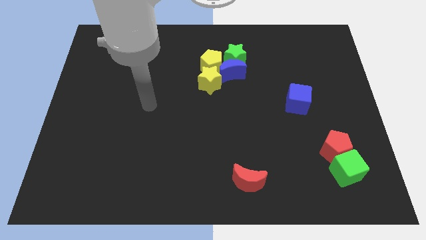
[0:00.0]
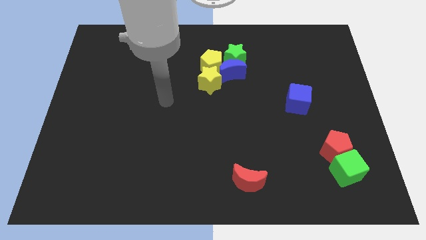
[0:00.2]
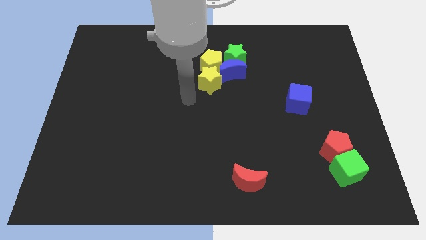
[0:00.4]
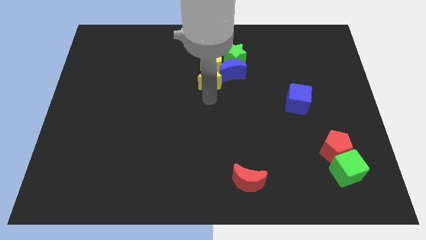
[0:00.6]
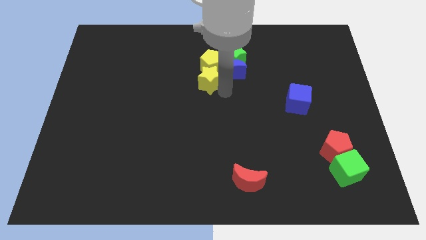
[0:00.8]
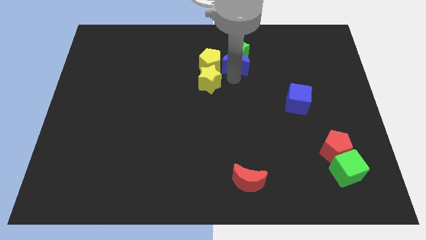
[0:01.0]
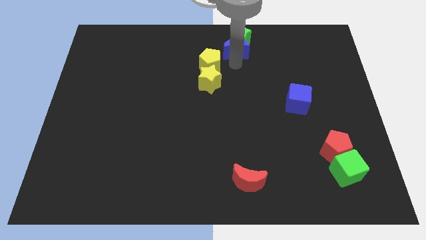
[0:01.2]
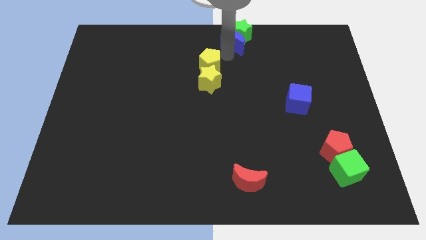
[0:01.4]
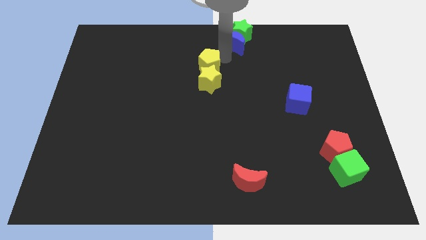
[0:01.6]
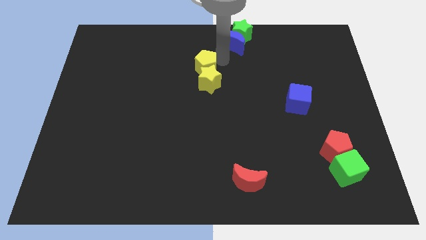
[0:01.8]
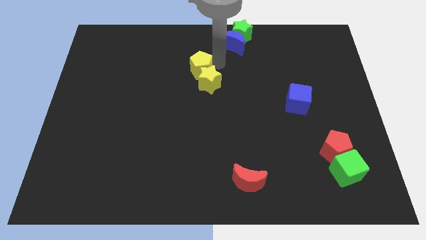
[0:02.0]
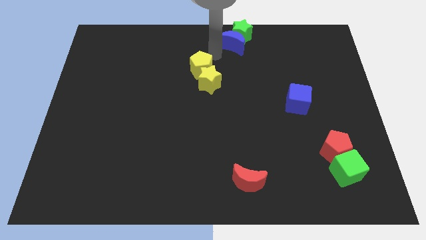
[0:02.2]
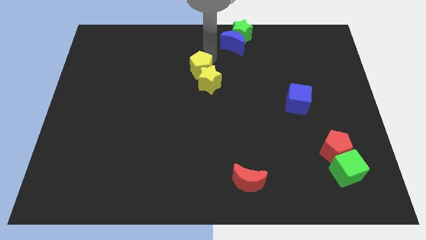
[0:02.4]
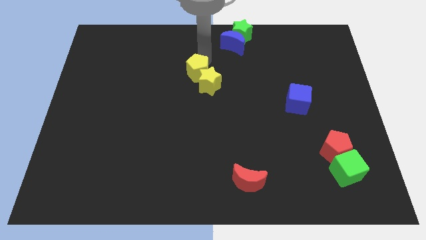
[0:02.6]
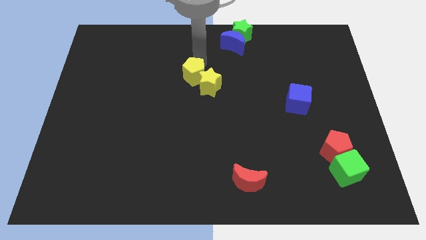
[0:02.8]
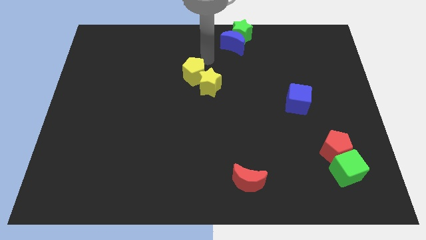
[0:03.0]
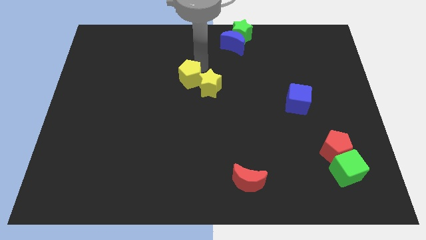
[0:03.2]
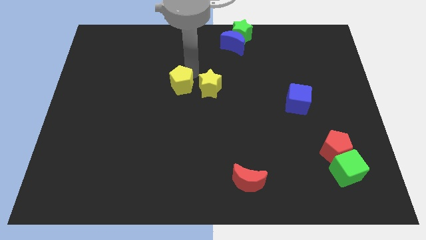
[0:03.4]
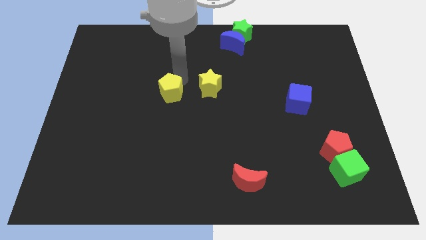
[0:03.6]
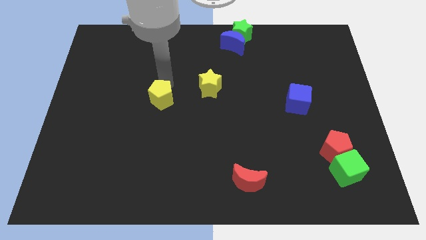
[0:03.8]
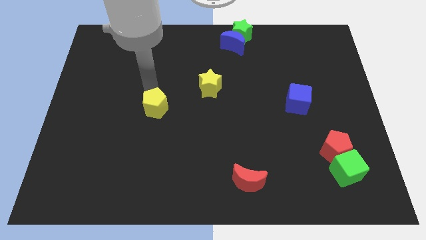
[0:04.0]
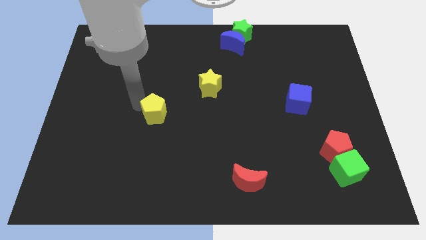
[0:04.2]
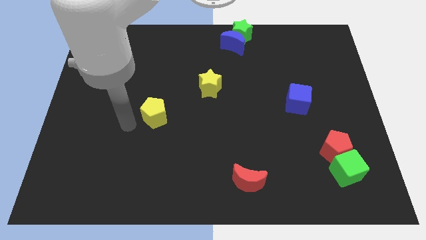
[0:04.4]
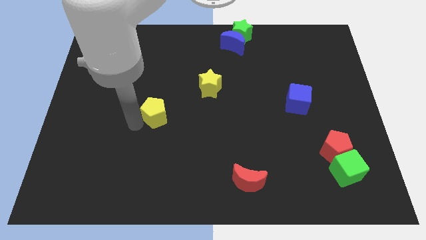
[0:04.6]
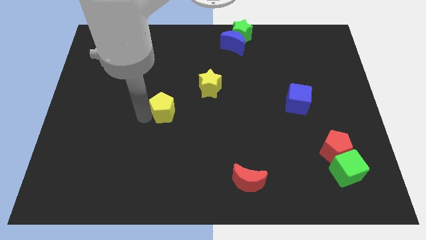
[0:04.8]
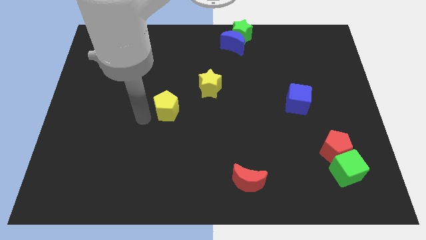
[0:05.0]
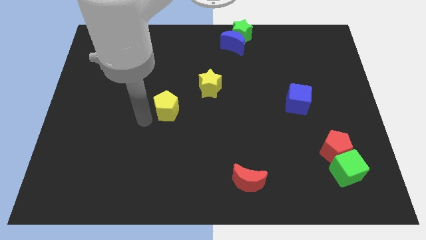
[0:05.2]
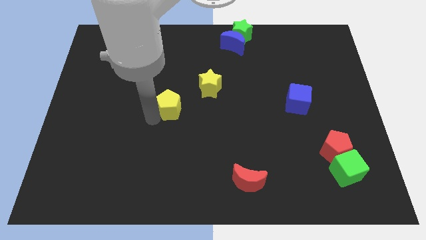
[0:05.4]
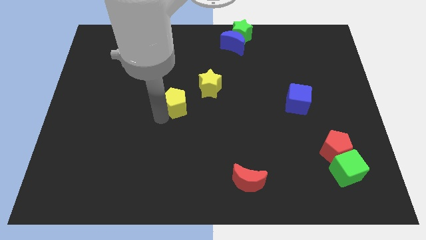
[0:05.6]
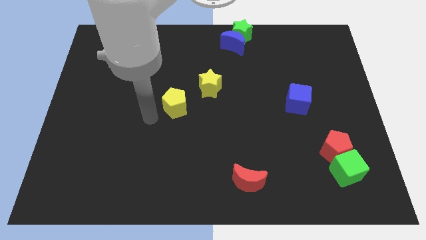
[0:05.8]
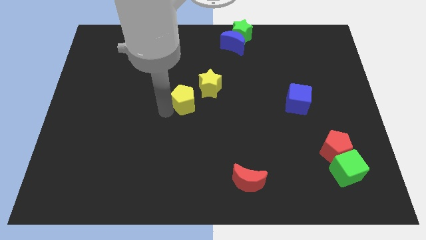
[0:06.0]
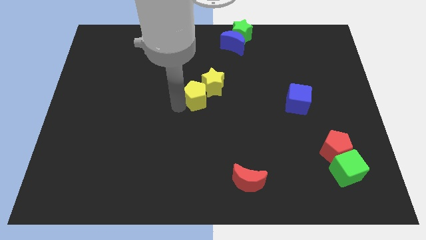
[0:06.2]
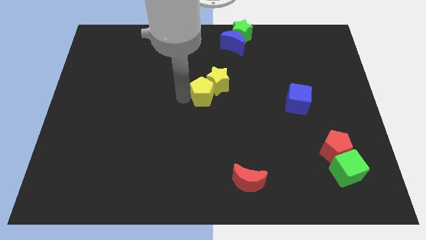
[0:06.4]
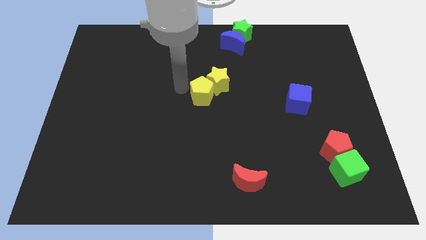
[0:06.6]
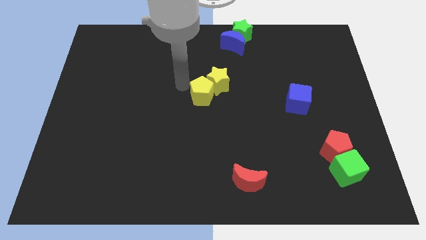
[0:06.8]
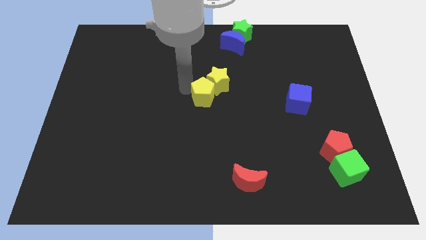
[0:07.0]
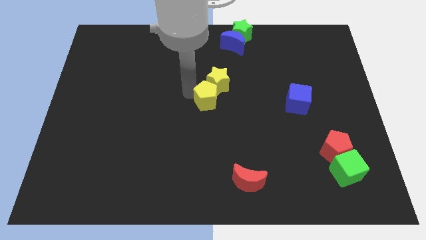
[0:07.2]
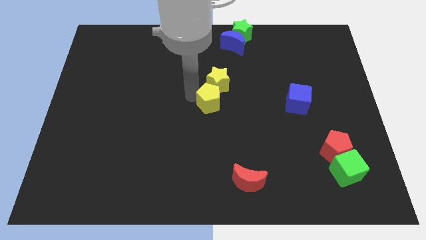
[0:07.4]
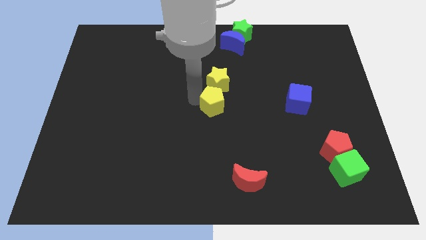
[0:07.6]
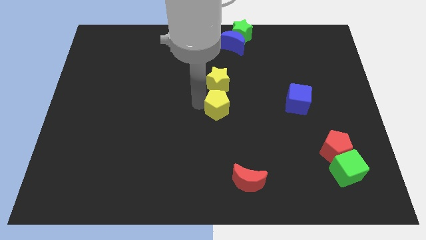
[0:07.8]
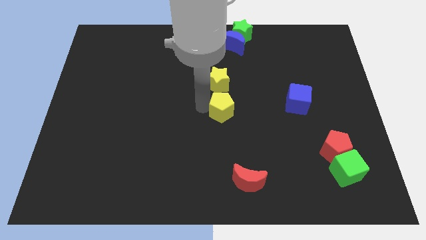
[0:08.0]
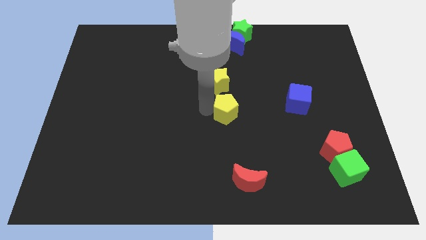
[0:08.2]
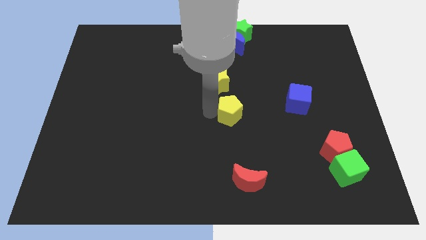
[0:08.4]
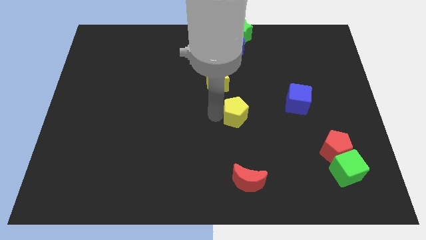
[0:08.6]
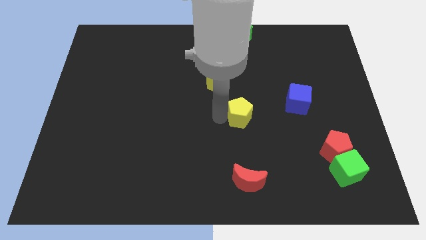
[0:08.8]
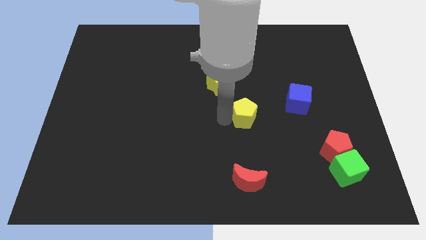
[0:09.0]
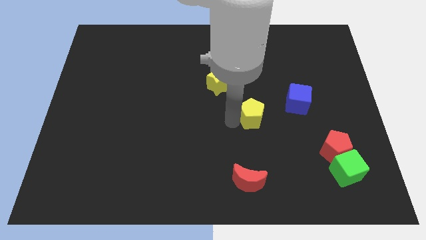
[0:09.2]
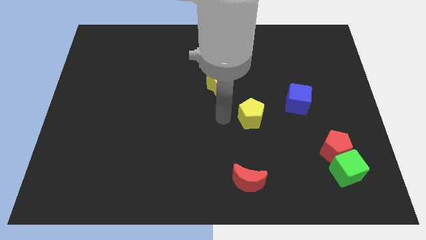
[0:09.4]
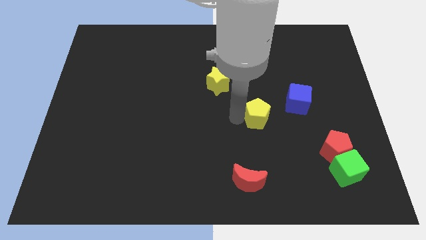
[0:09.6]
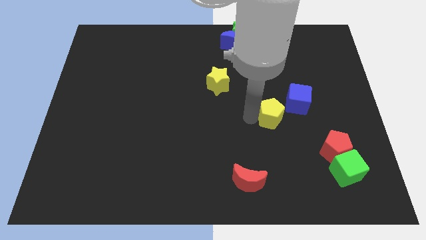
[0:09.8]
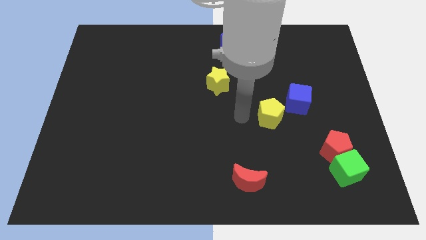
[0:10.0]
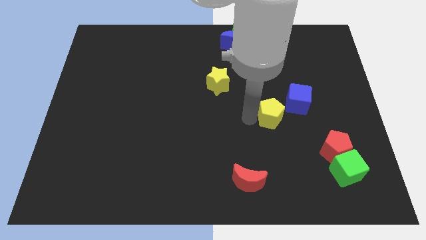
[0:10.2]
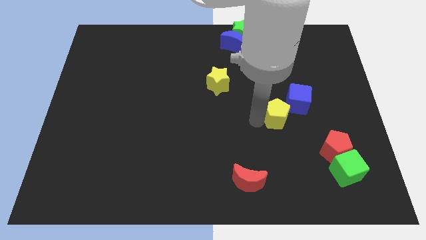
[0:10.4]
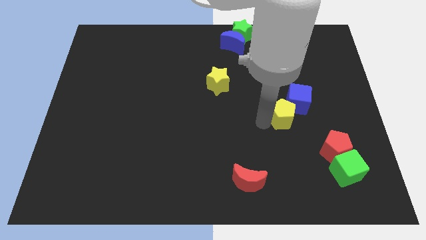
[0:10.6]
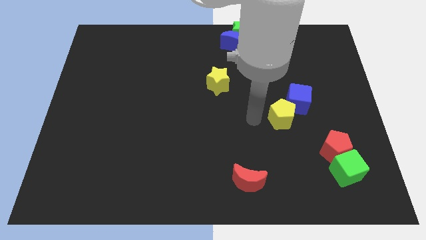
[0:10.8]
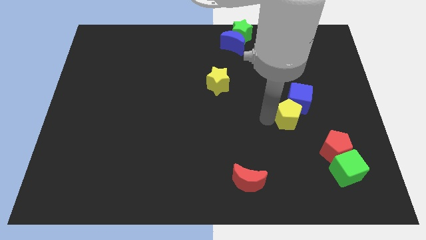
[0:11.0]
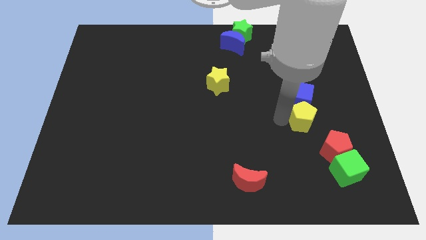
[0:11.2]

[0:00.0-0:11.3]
push the yellow pentagon diagonally down and to the right of the blue cube

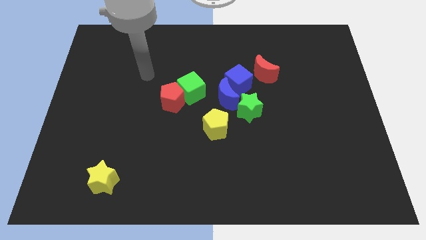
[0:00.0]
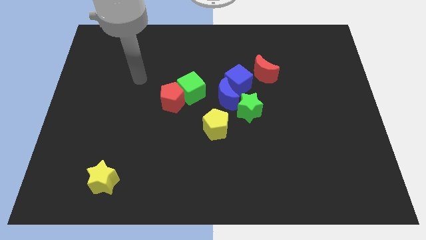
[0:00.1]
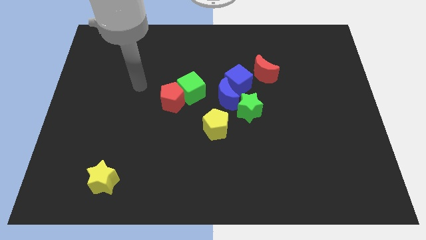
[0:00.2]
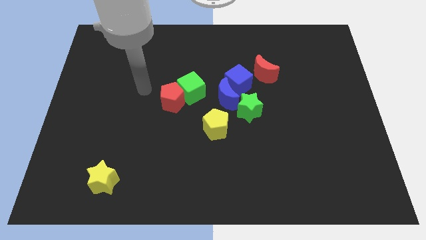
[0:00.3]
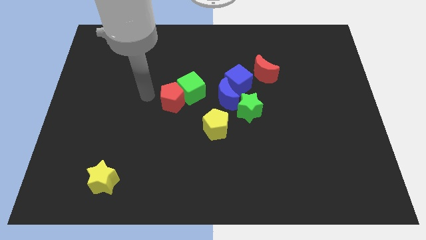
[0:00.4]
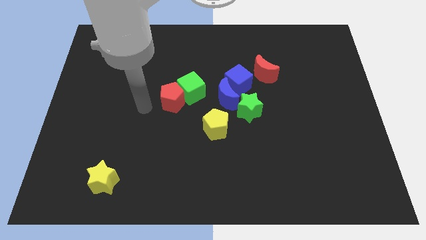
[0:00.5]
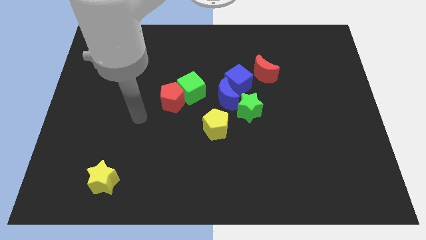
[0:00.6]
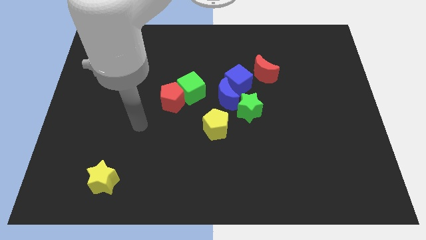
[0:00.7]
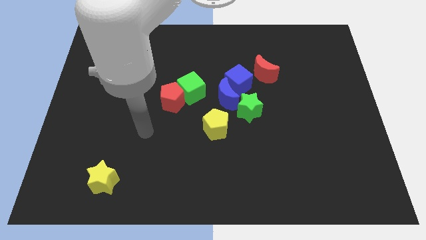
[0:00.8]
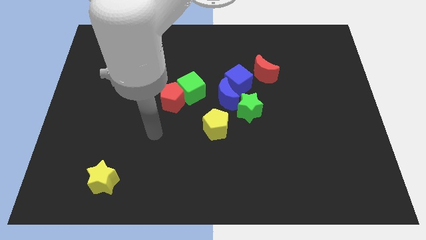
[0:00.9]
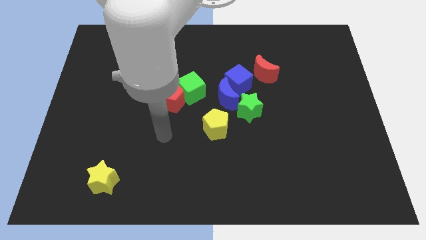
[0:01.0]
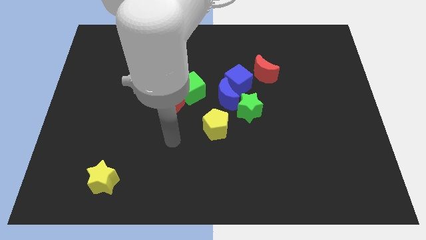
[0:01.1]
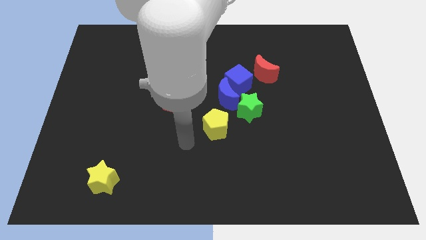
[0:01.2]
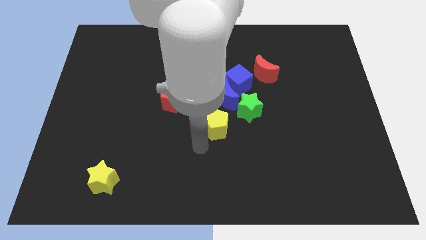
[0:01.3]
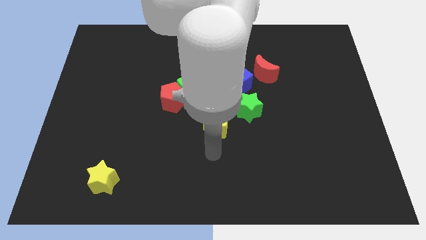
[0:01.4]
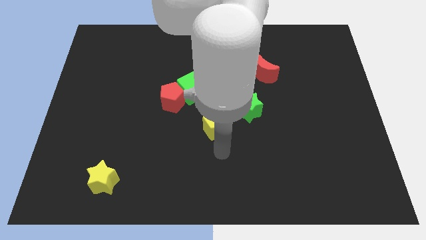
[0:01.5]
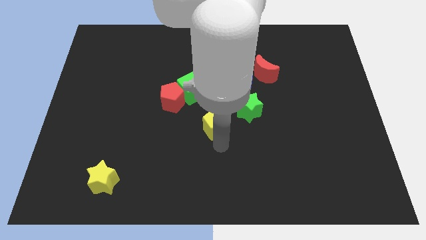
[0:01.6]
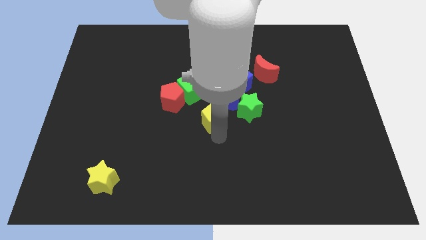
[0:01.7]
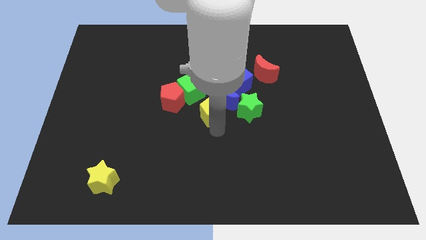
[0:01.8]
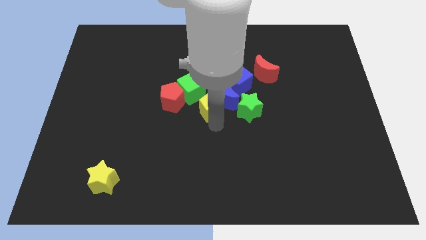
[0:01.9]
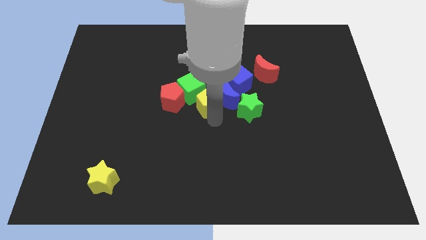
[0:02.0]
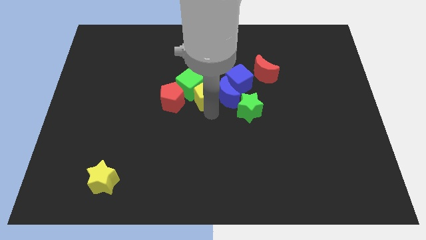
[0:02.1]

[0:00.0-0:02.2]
push the yellow pentagon to the top left side of the blue moon
